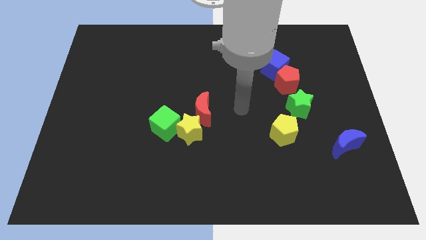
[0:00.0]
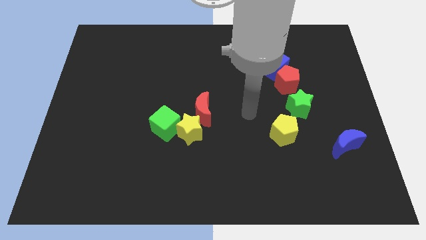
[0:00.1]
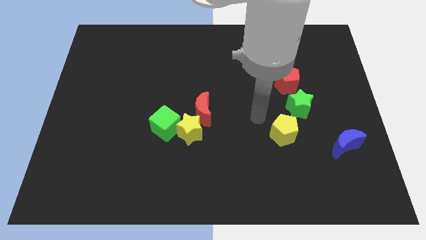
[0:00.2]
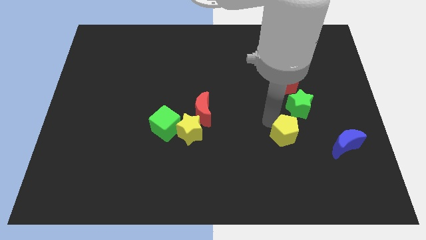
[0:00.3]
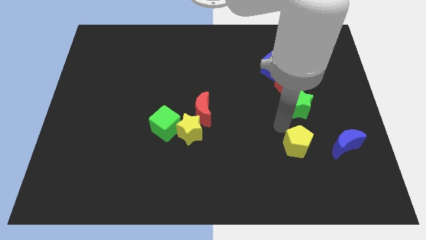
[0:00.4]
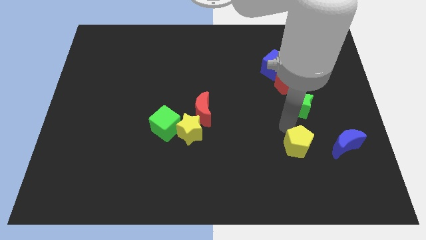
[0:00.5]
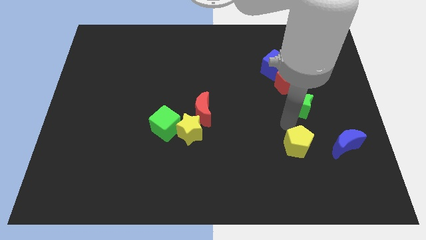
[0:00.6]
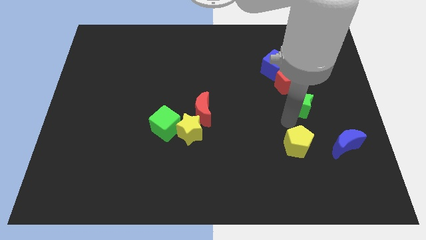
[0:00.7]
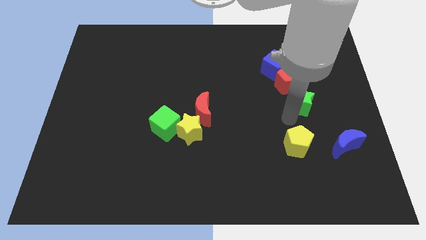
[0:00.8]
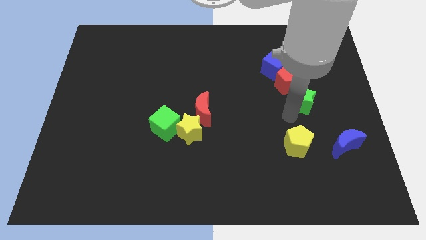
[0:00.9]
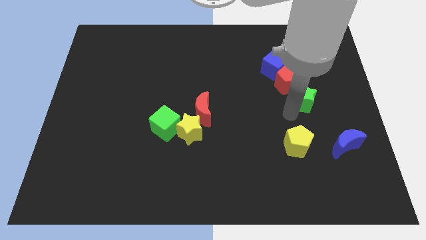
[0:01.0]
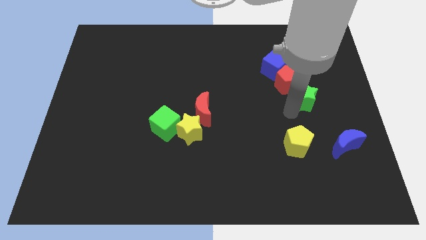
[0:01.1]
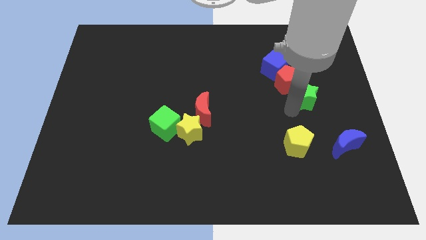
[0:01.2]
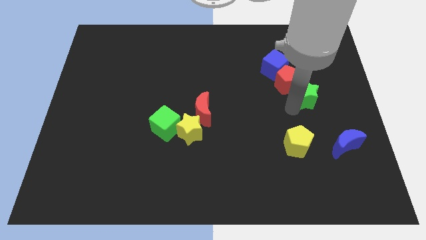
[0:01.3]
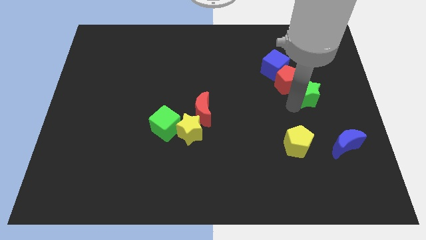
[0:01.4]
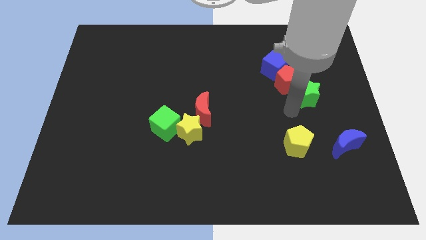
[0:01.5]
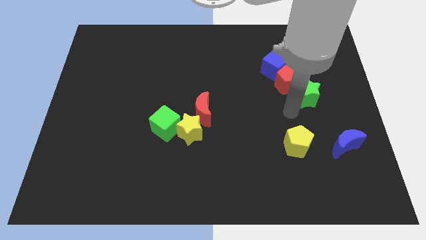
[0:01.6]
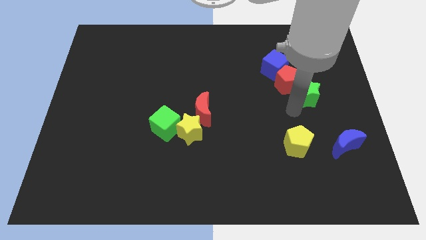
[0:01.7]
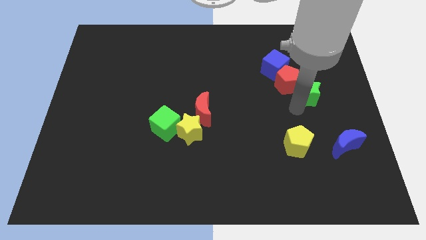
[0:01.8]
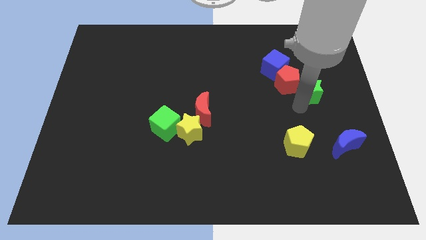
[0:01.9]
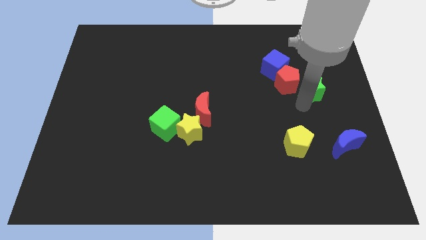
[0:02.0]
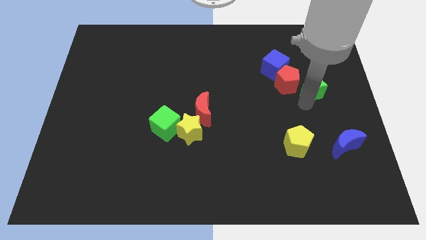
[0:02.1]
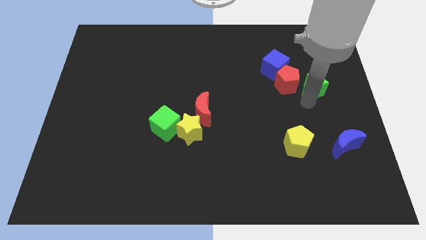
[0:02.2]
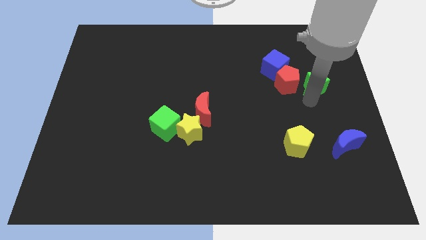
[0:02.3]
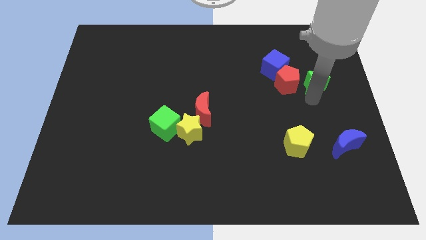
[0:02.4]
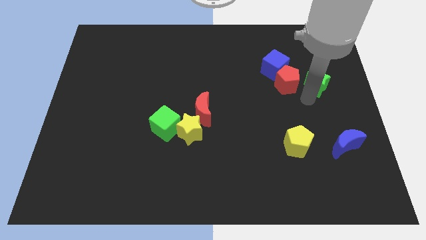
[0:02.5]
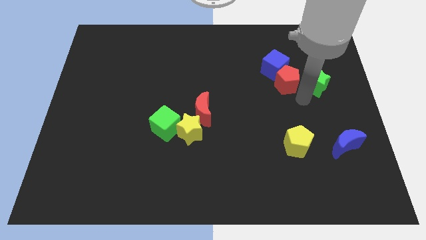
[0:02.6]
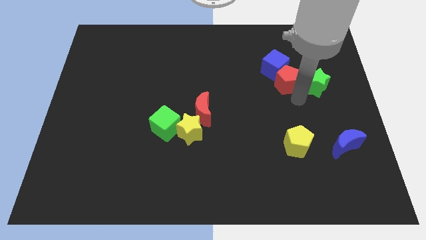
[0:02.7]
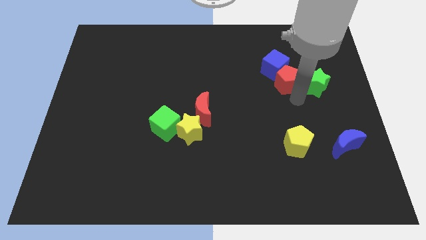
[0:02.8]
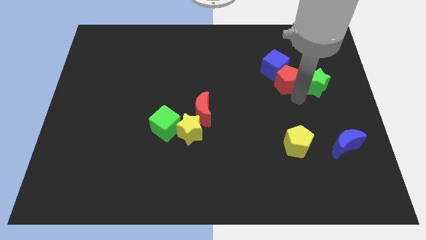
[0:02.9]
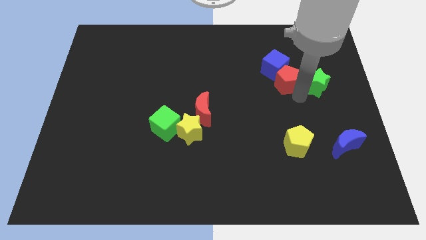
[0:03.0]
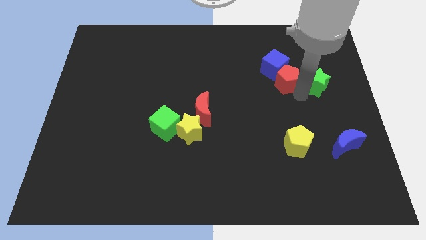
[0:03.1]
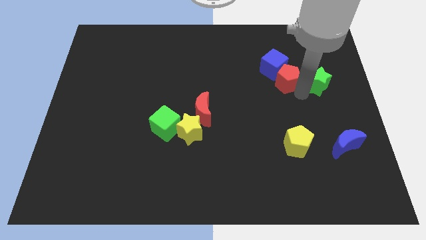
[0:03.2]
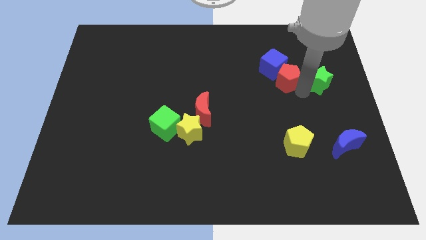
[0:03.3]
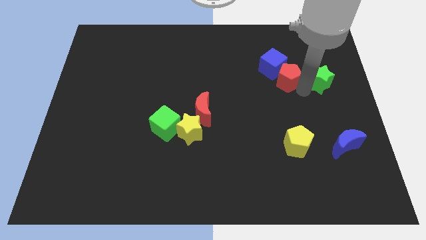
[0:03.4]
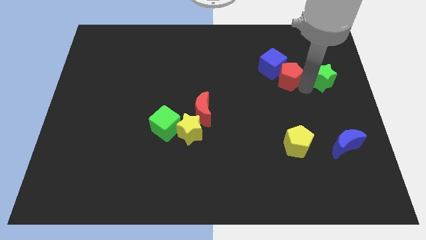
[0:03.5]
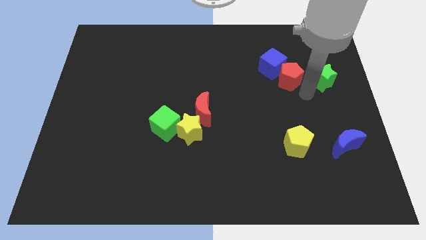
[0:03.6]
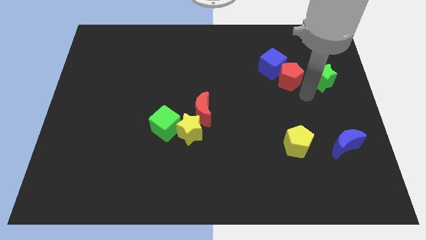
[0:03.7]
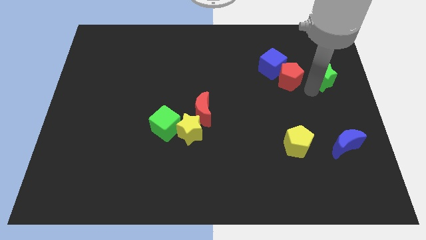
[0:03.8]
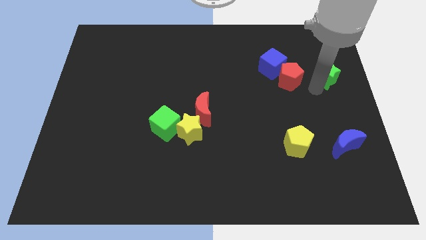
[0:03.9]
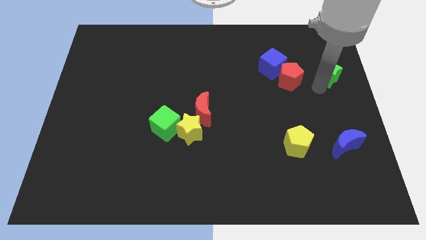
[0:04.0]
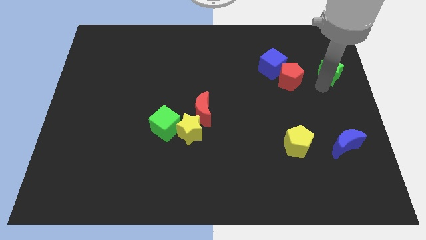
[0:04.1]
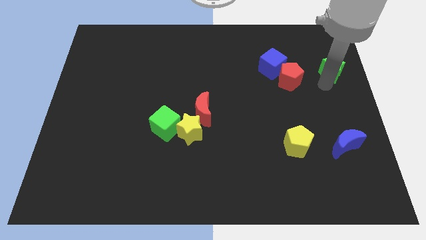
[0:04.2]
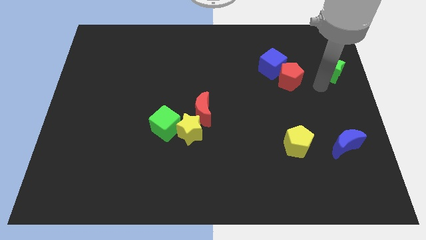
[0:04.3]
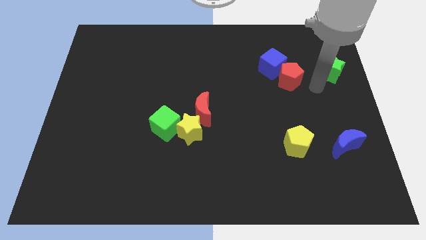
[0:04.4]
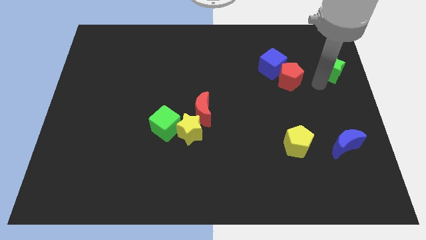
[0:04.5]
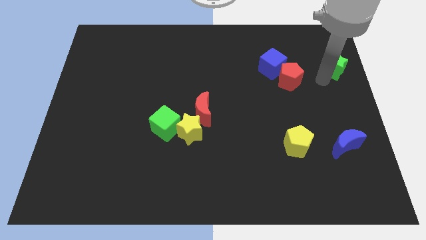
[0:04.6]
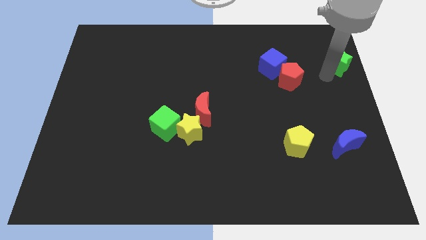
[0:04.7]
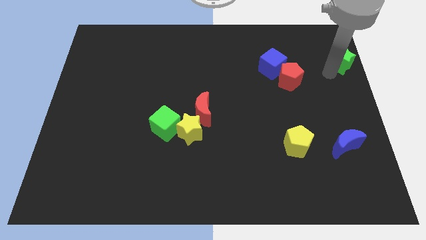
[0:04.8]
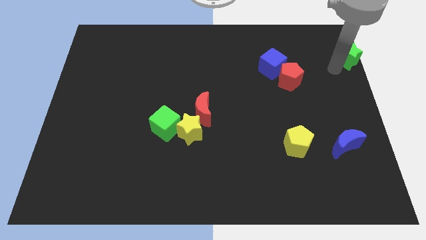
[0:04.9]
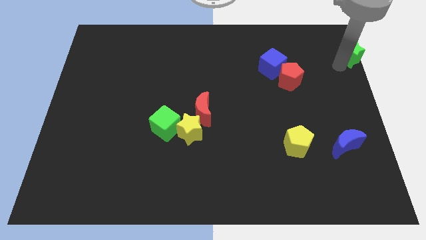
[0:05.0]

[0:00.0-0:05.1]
move the green star to the top right
